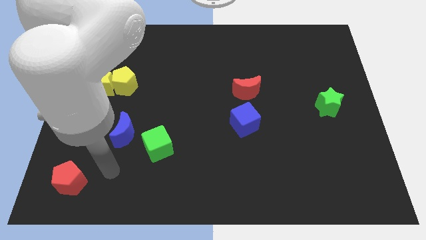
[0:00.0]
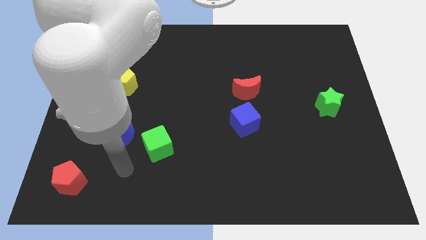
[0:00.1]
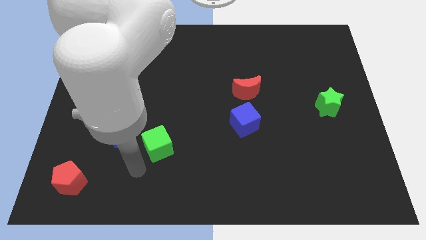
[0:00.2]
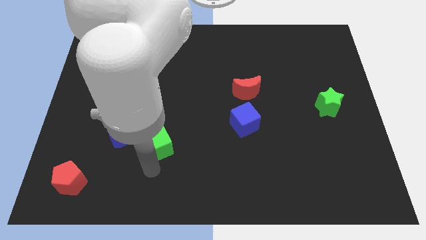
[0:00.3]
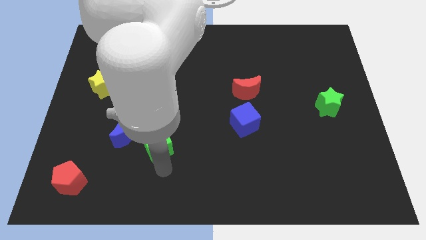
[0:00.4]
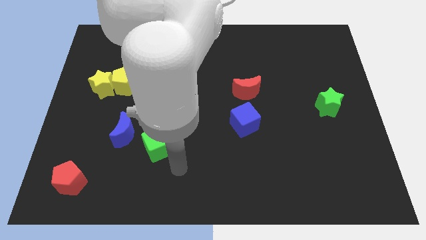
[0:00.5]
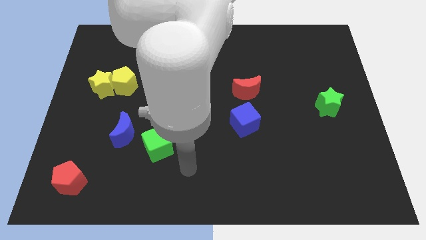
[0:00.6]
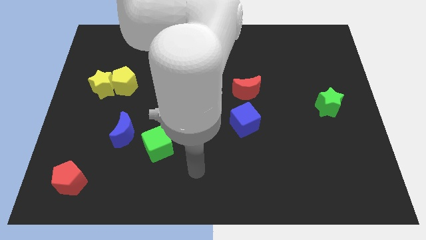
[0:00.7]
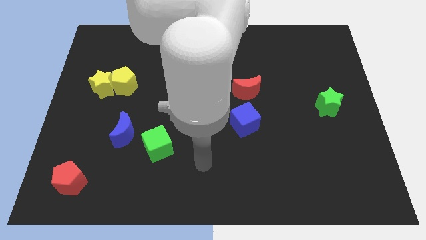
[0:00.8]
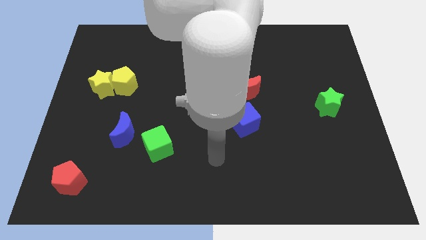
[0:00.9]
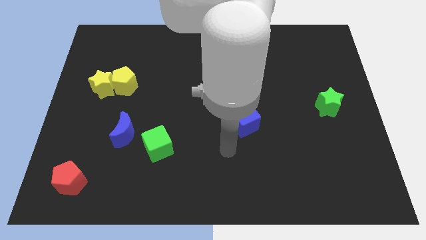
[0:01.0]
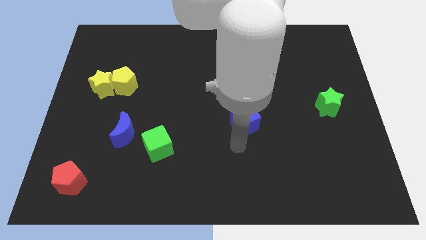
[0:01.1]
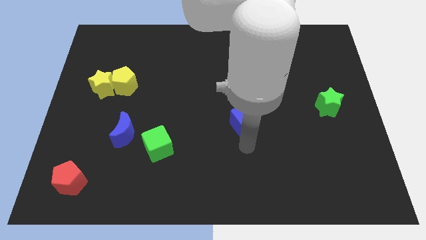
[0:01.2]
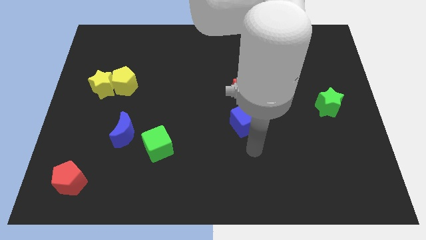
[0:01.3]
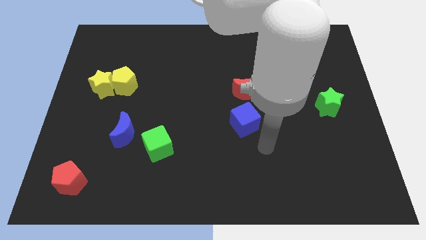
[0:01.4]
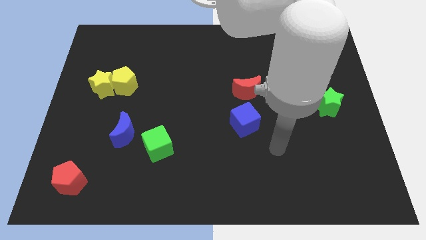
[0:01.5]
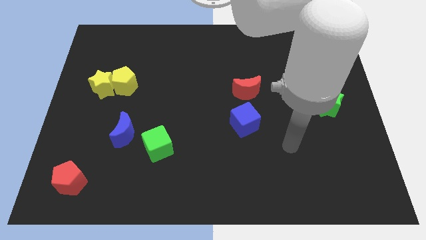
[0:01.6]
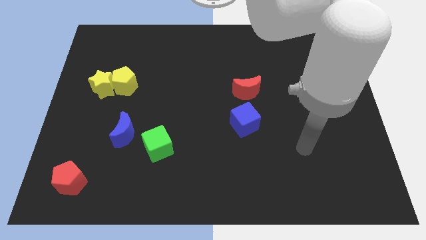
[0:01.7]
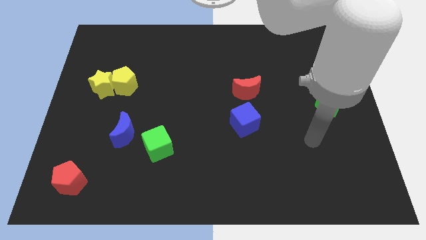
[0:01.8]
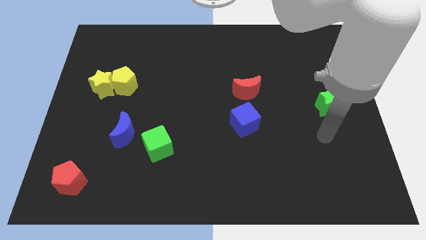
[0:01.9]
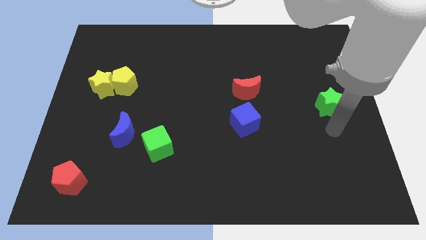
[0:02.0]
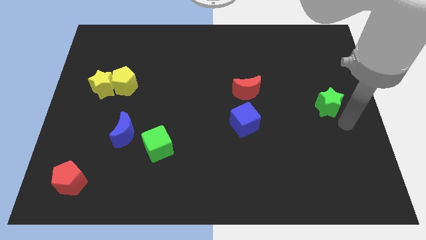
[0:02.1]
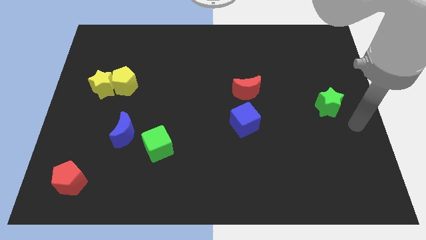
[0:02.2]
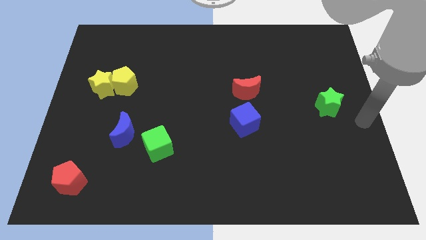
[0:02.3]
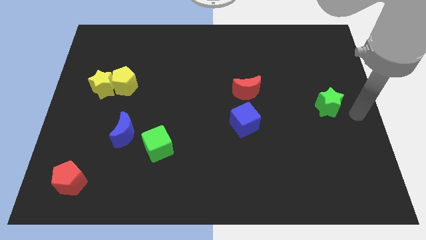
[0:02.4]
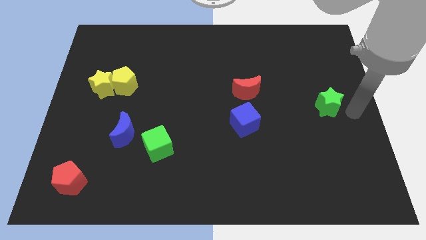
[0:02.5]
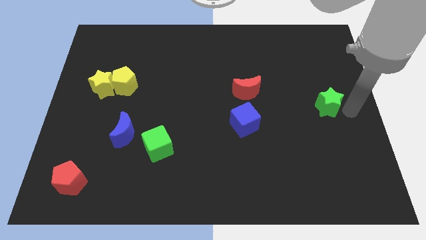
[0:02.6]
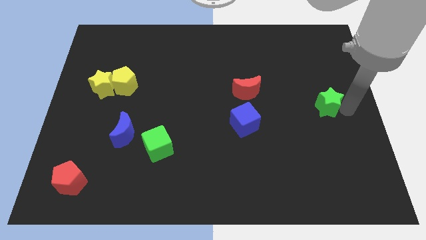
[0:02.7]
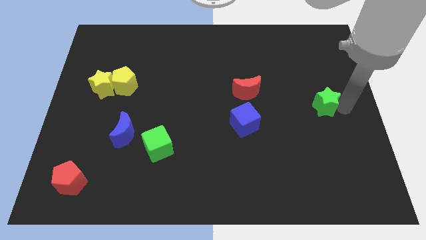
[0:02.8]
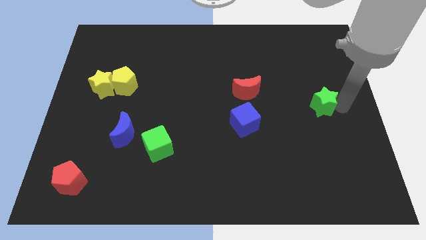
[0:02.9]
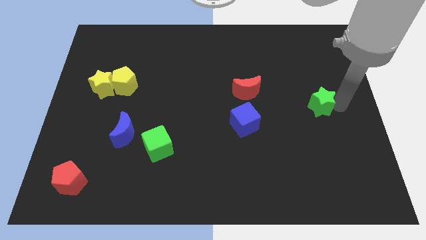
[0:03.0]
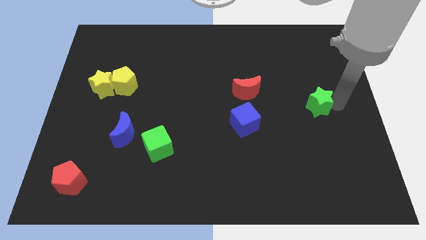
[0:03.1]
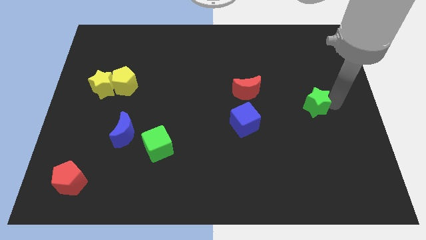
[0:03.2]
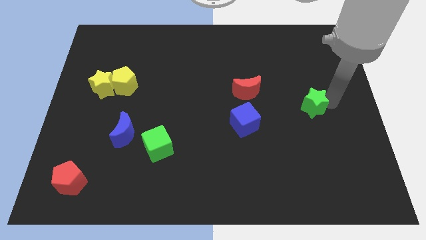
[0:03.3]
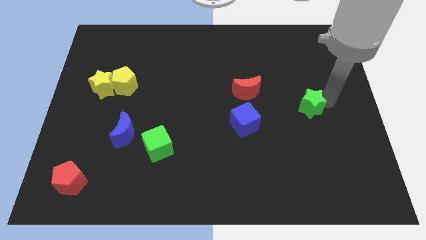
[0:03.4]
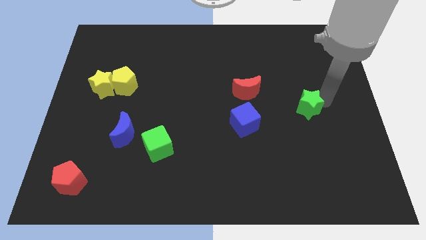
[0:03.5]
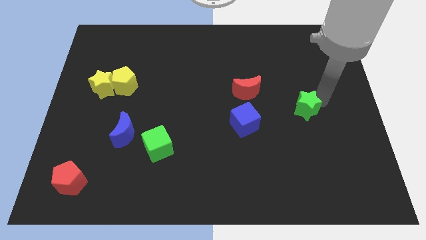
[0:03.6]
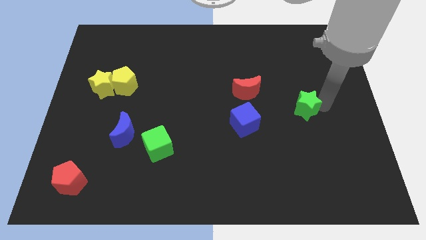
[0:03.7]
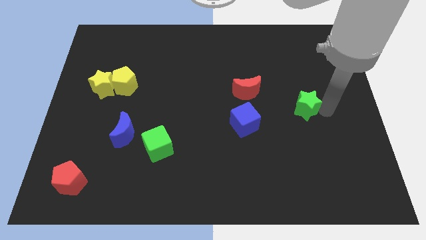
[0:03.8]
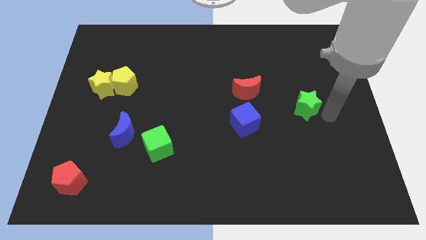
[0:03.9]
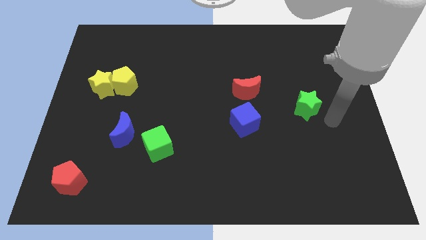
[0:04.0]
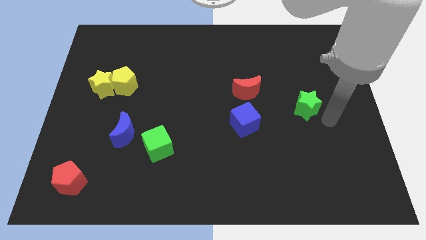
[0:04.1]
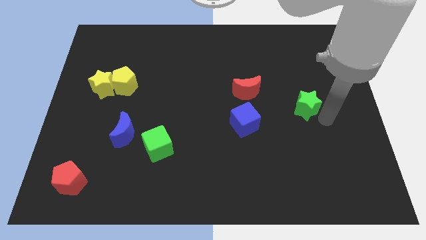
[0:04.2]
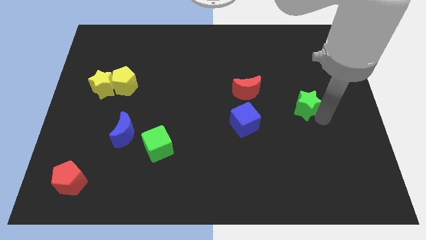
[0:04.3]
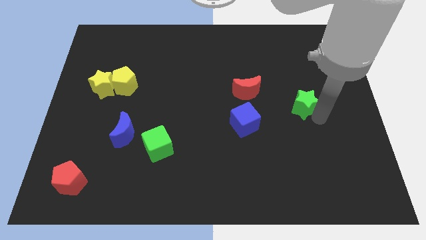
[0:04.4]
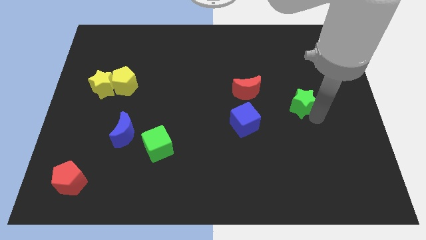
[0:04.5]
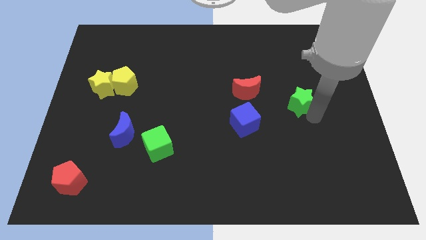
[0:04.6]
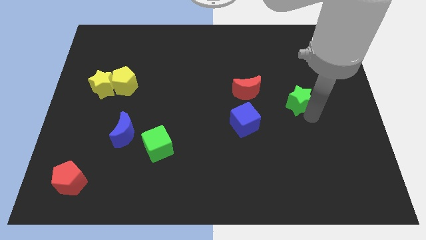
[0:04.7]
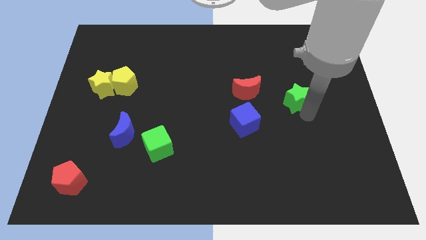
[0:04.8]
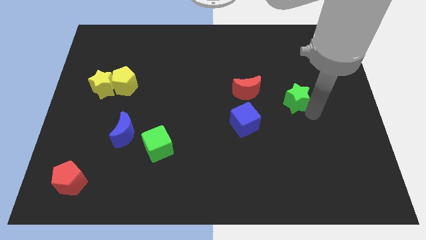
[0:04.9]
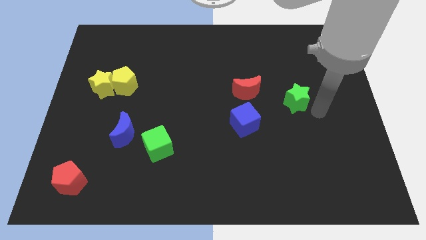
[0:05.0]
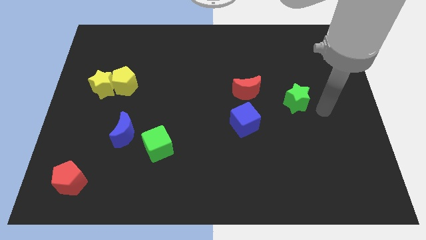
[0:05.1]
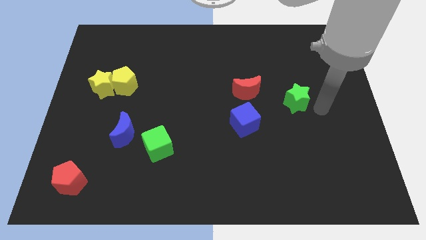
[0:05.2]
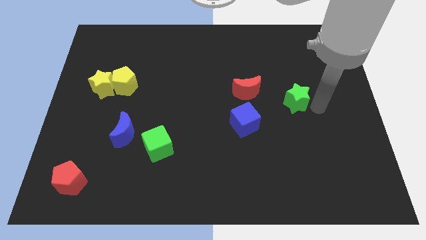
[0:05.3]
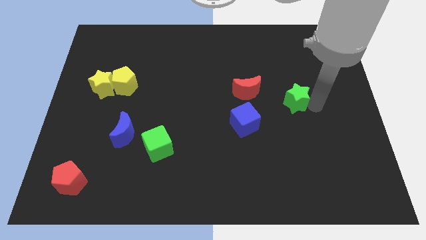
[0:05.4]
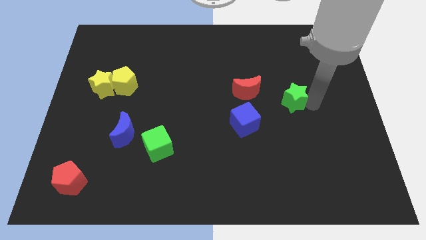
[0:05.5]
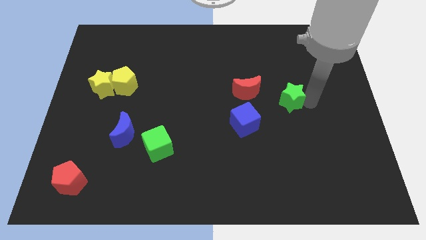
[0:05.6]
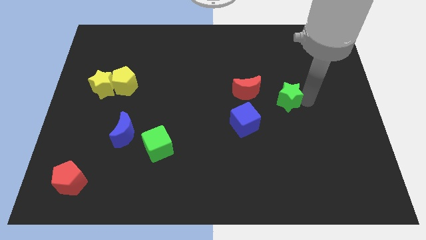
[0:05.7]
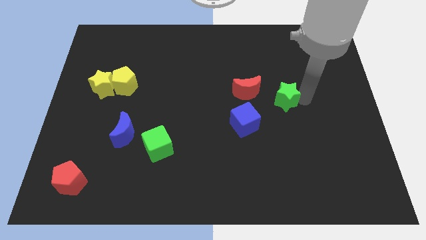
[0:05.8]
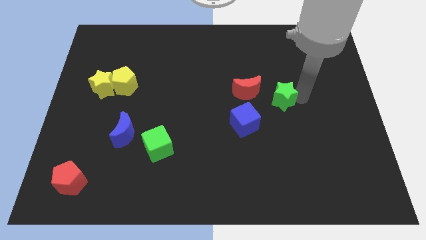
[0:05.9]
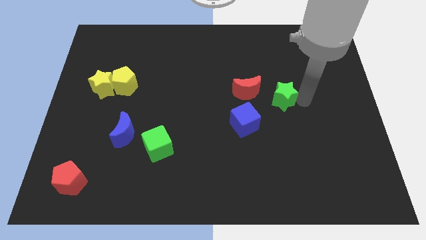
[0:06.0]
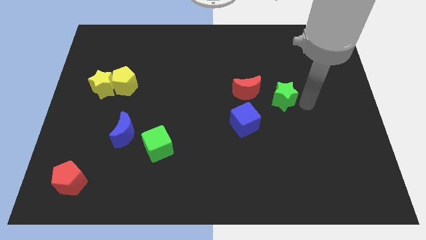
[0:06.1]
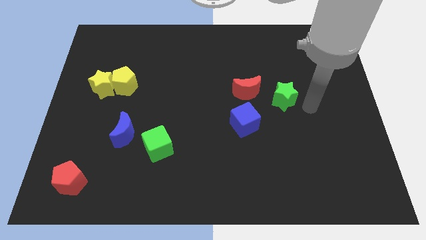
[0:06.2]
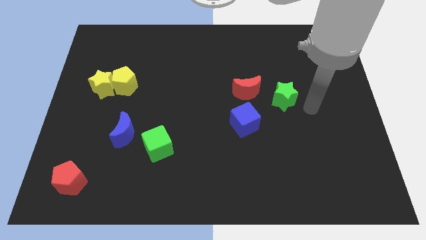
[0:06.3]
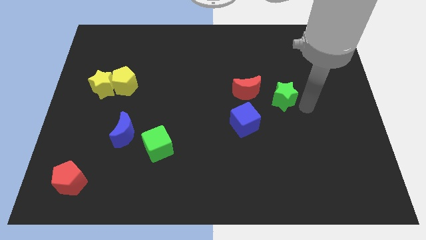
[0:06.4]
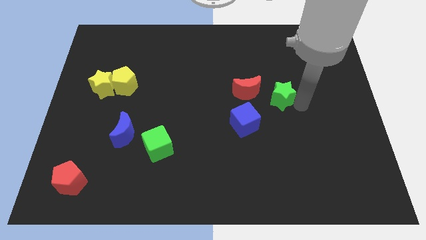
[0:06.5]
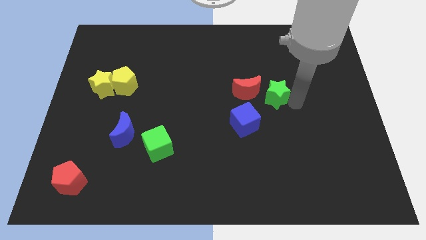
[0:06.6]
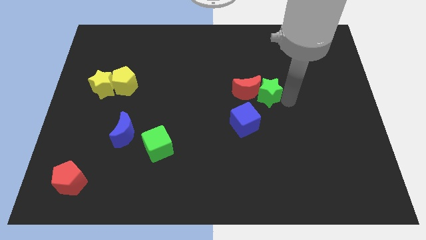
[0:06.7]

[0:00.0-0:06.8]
put the green star close to the red moon
